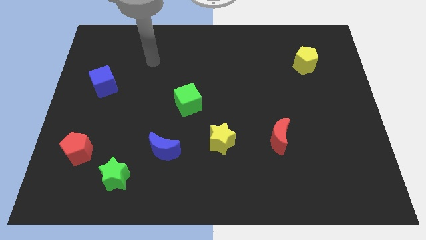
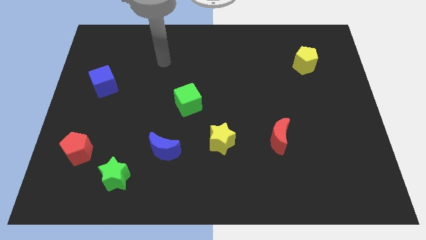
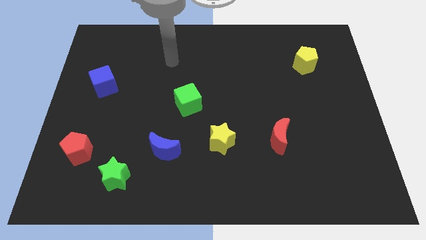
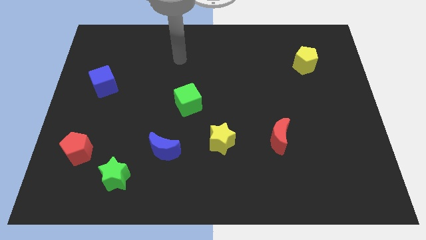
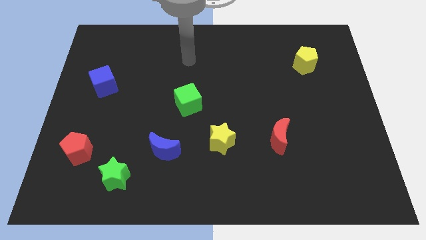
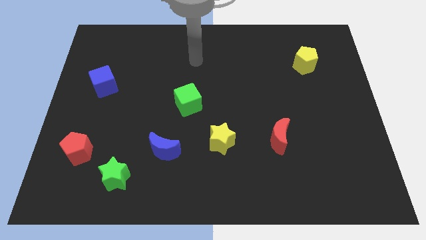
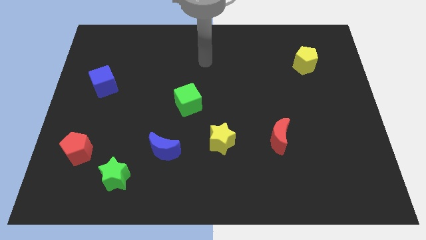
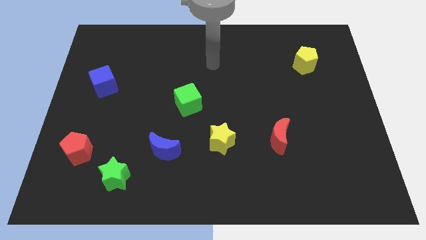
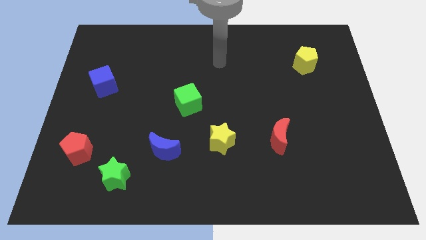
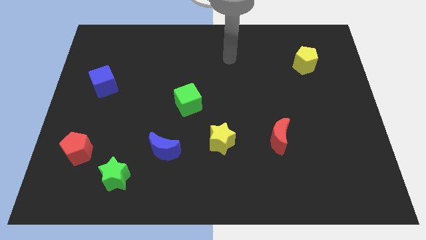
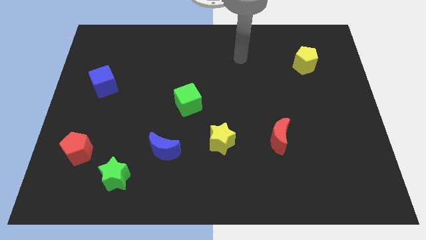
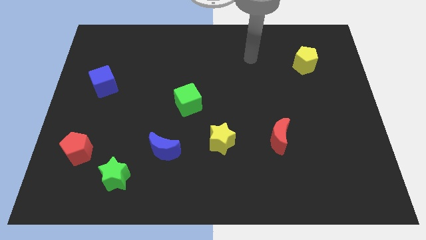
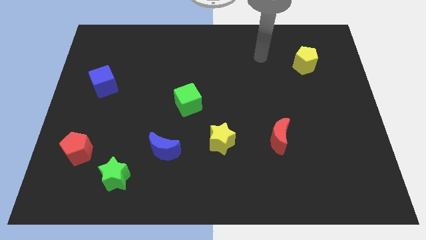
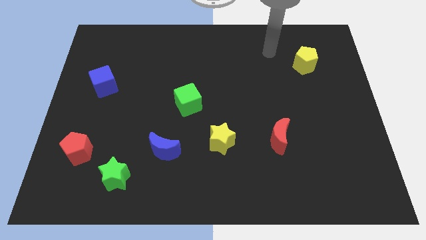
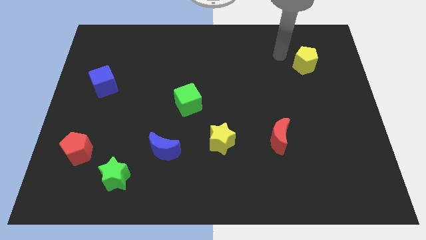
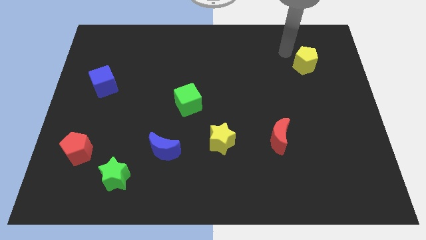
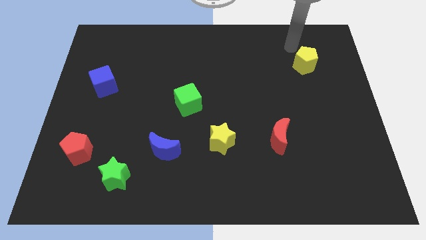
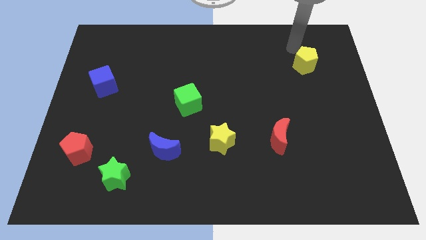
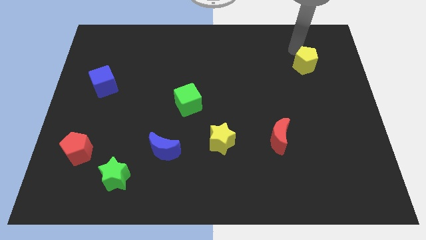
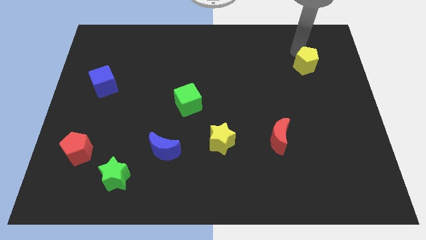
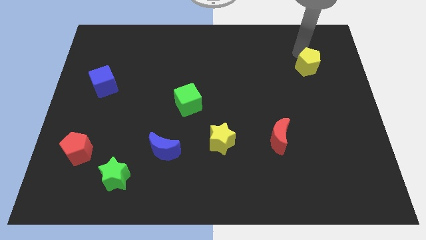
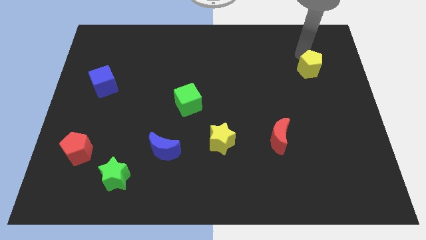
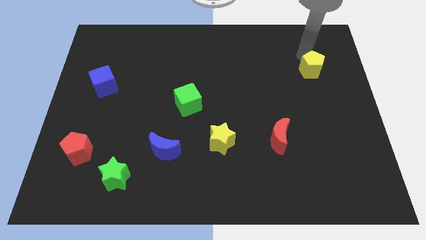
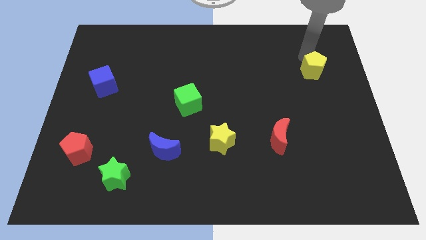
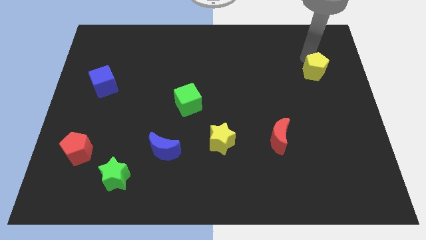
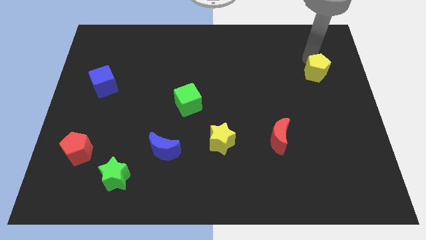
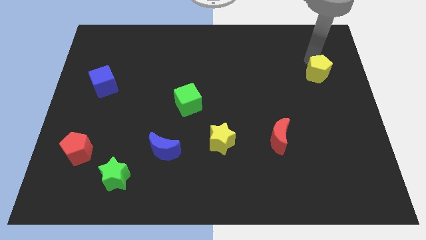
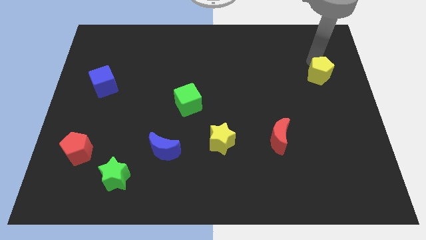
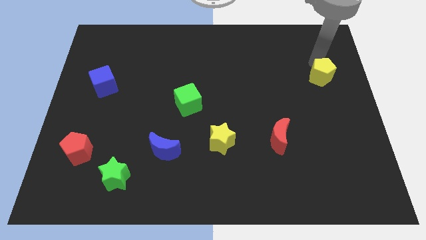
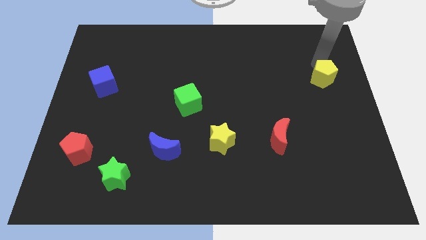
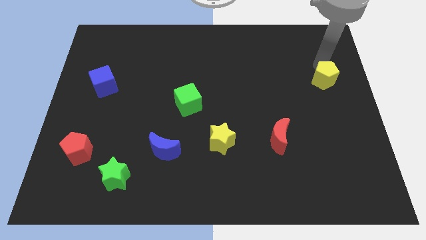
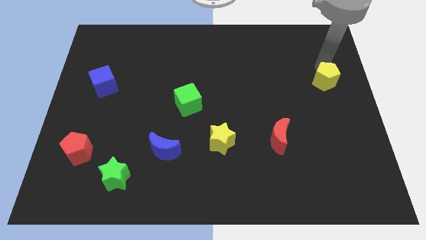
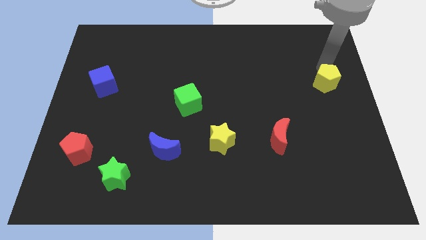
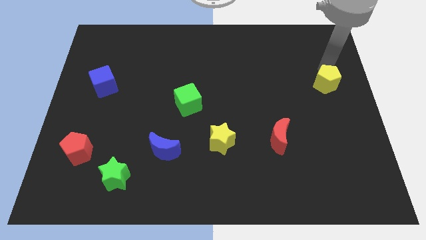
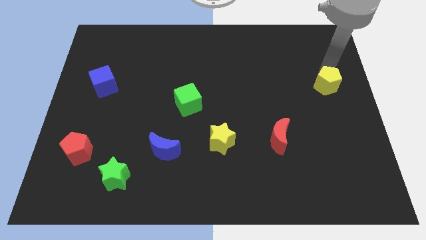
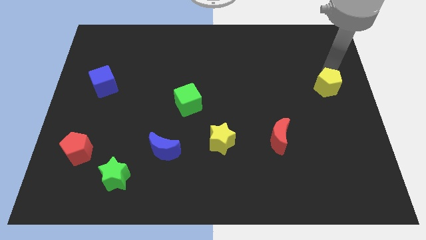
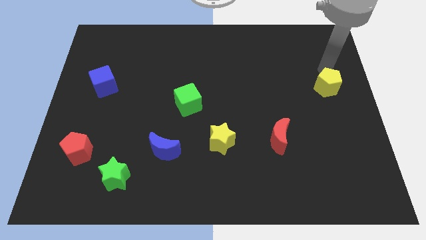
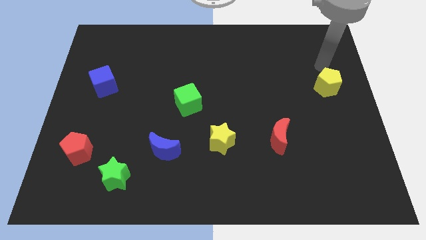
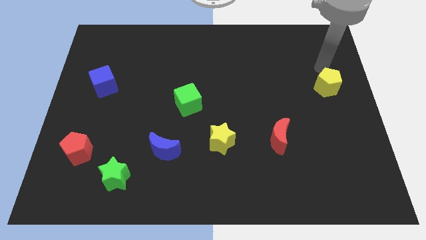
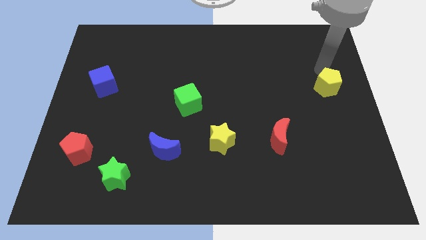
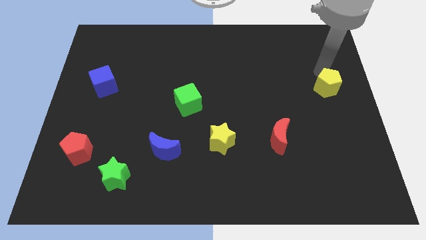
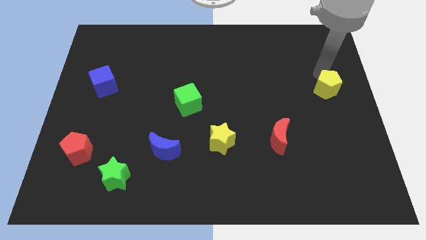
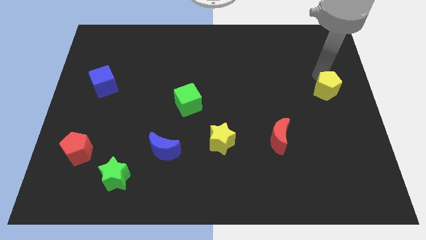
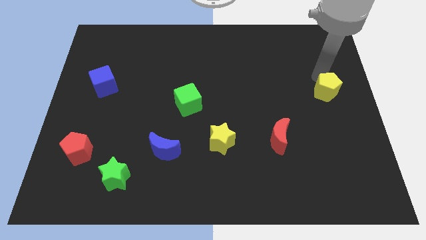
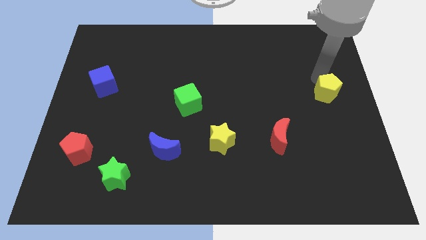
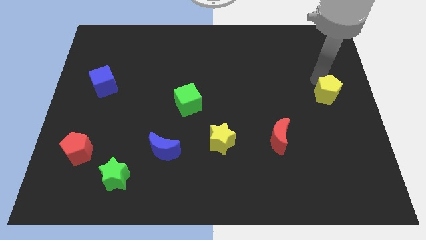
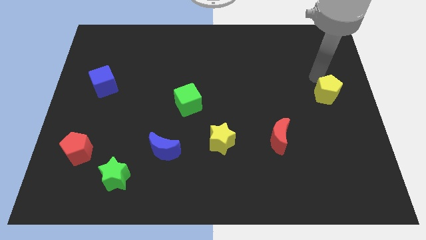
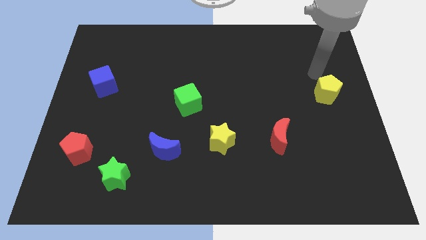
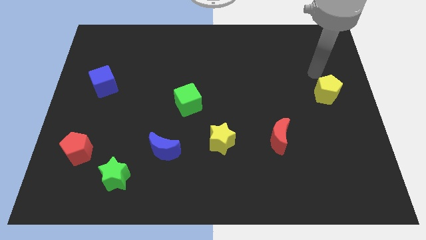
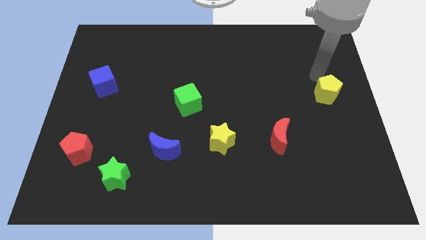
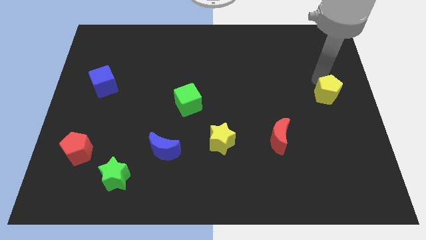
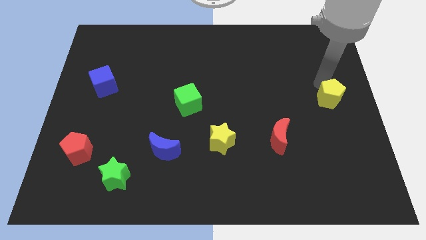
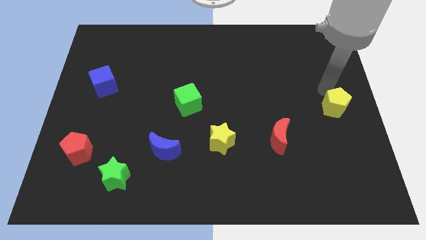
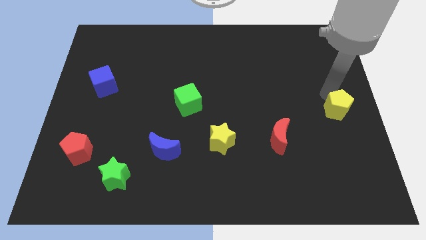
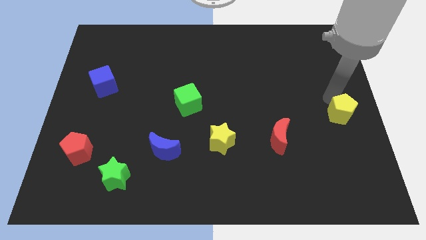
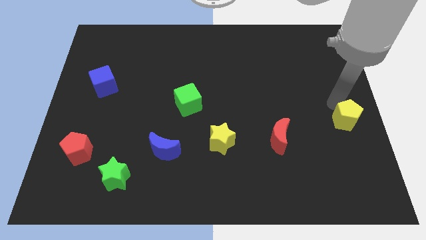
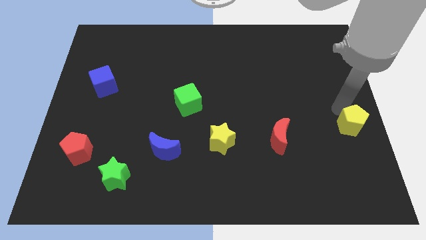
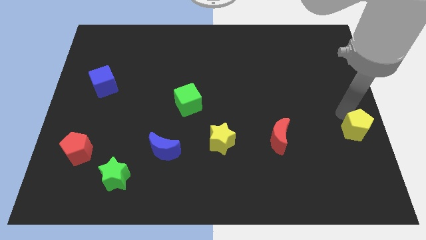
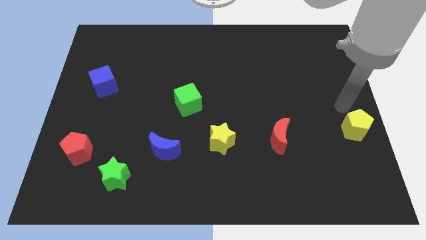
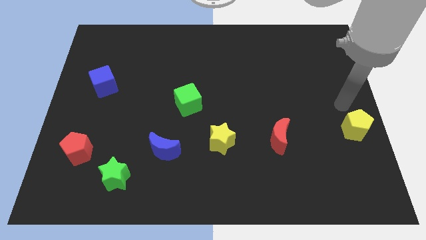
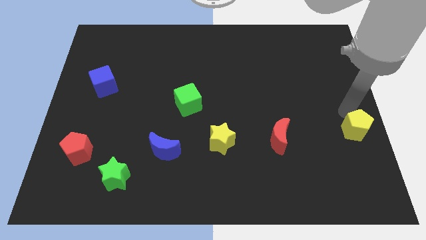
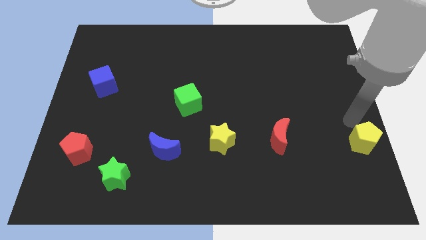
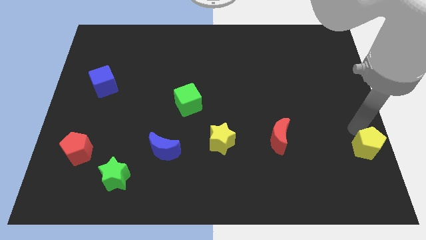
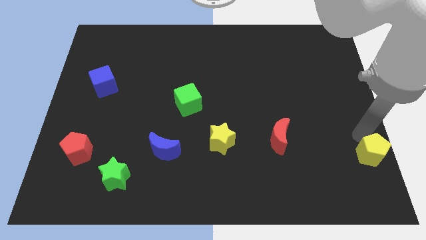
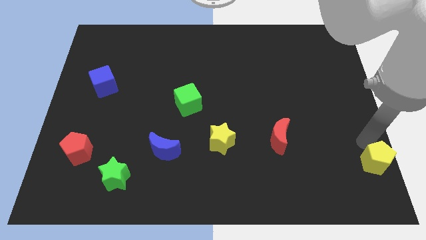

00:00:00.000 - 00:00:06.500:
move the yellow pentagon to the lower right corner
